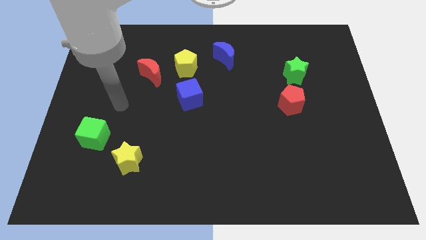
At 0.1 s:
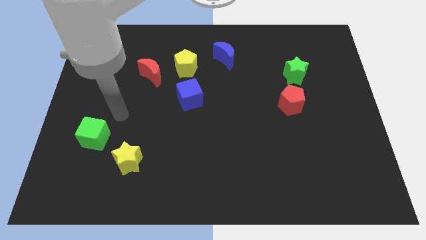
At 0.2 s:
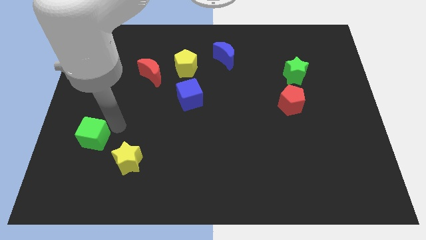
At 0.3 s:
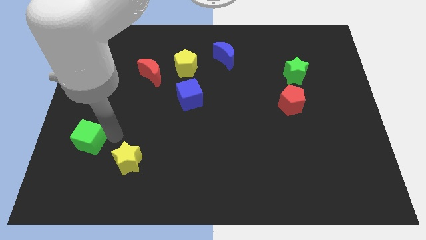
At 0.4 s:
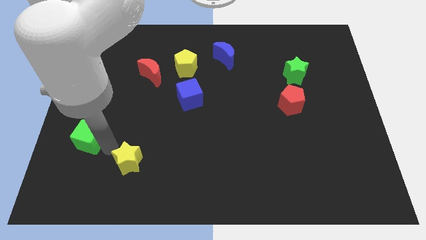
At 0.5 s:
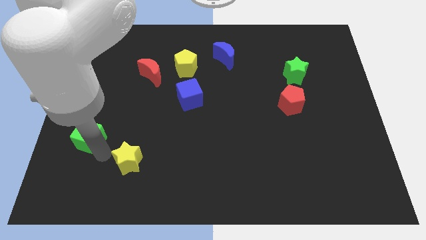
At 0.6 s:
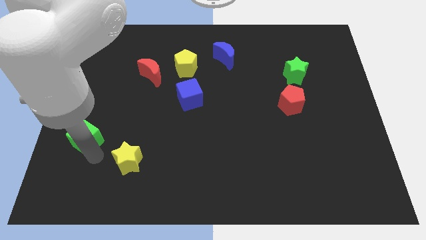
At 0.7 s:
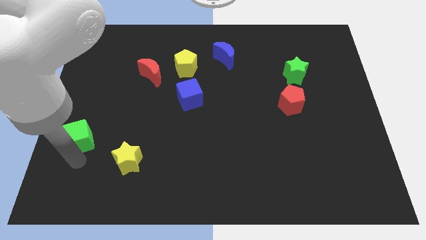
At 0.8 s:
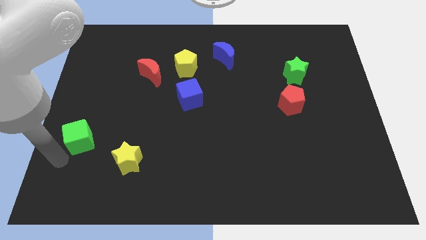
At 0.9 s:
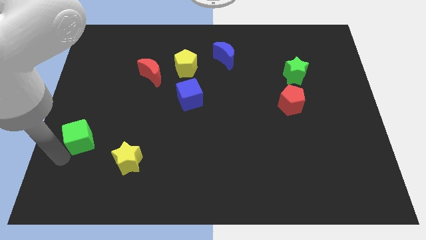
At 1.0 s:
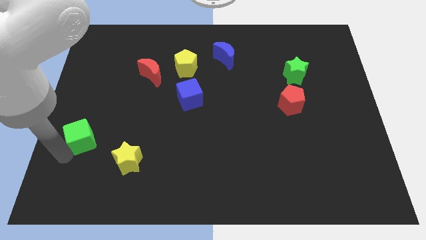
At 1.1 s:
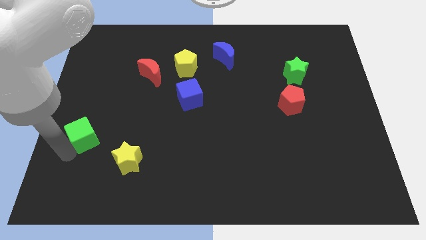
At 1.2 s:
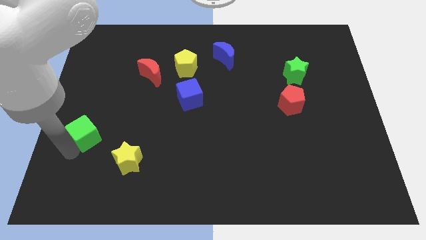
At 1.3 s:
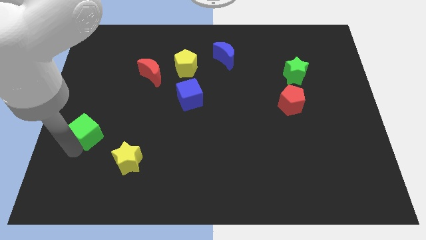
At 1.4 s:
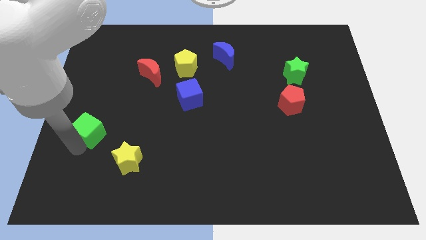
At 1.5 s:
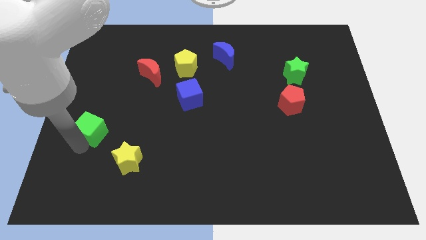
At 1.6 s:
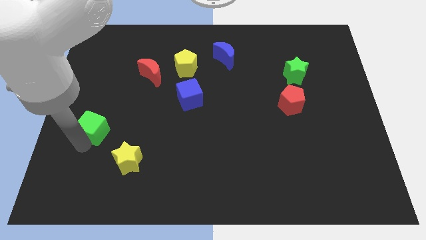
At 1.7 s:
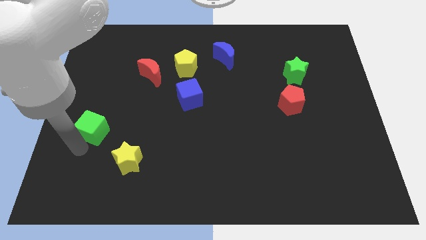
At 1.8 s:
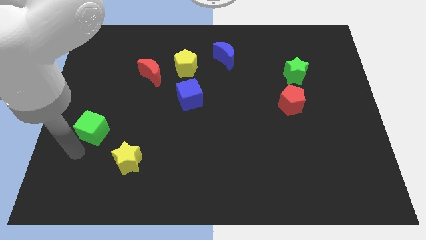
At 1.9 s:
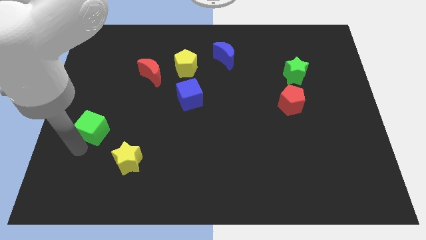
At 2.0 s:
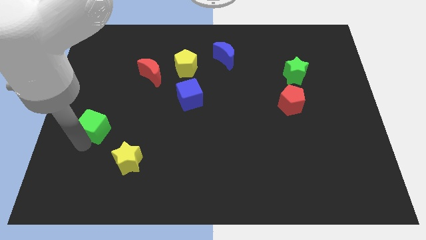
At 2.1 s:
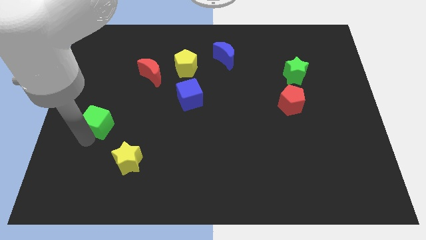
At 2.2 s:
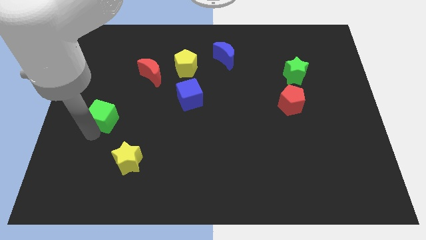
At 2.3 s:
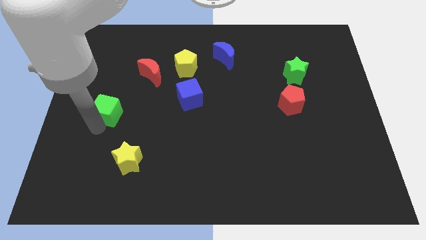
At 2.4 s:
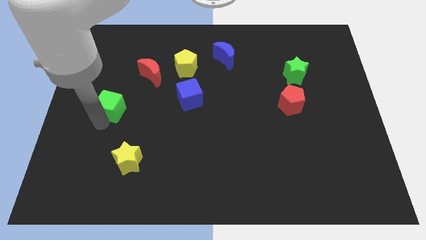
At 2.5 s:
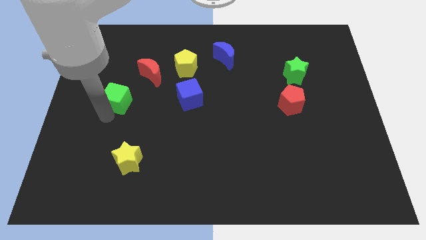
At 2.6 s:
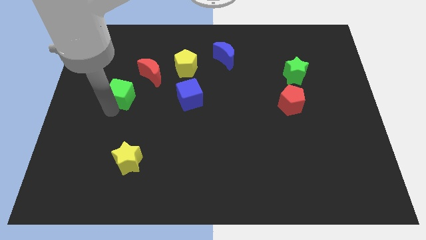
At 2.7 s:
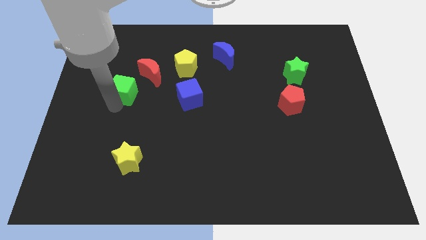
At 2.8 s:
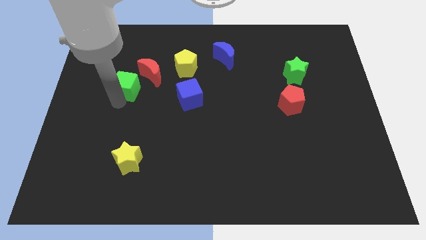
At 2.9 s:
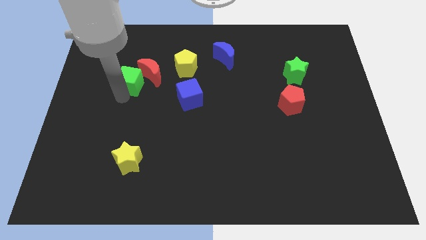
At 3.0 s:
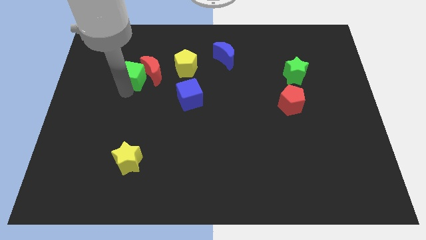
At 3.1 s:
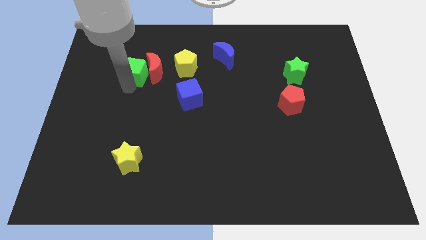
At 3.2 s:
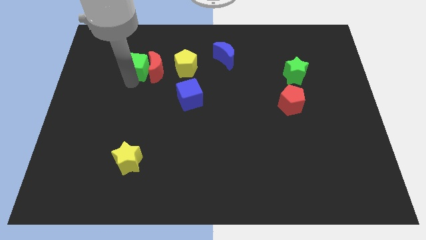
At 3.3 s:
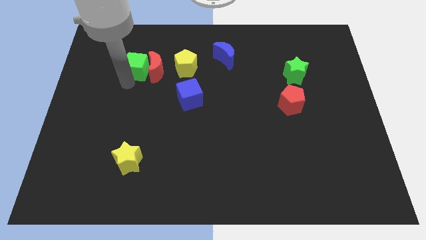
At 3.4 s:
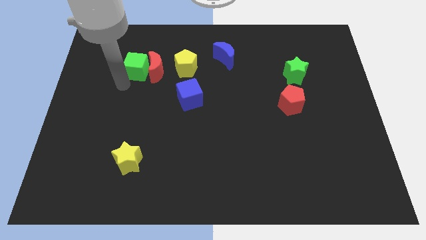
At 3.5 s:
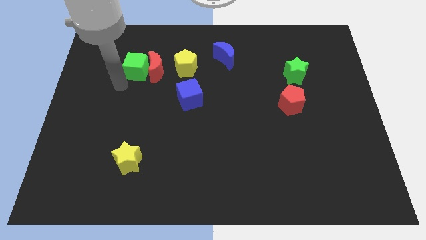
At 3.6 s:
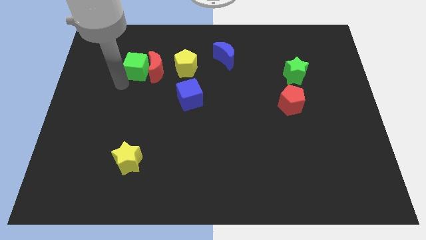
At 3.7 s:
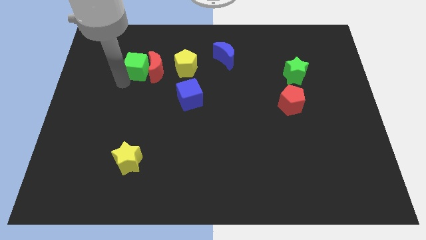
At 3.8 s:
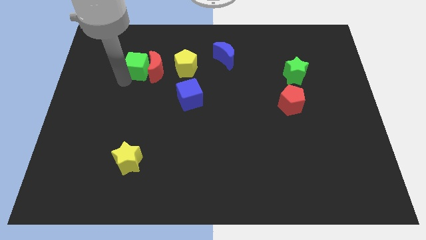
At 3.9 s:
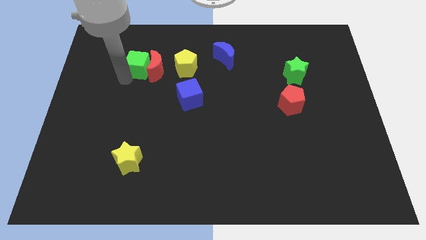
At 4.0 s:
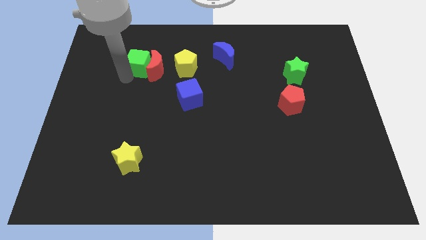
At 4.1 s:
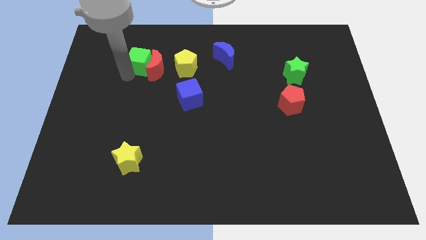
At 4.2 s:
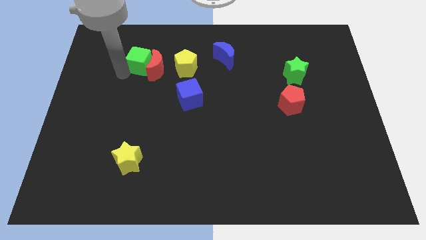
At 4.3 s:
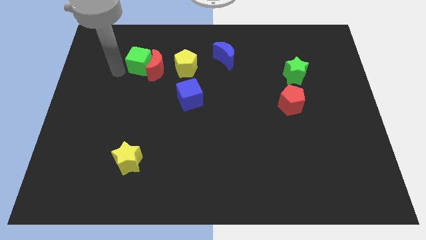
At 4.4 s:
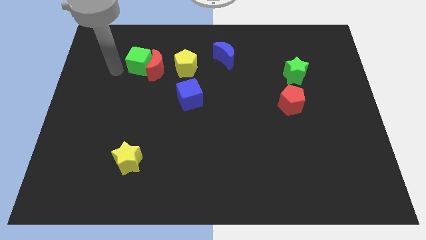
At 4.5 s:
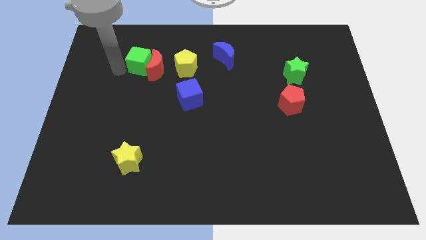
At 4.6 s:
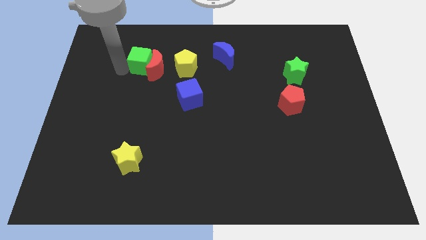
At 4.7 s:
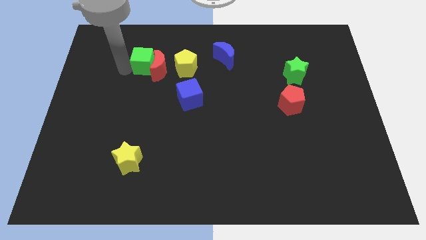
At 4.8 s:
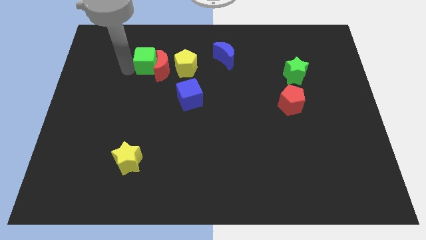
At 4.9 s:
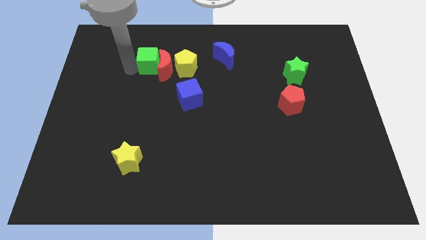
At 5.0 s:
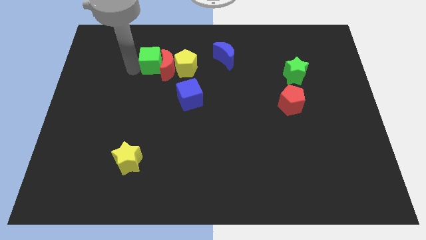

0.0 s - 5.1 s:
push the green cube upwards and to the right

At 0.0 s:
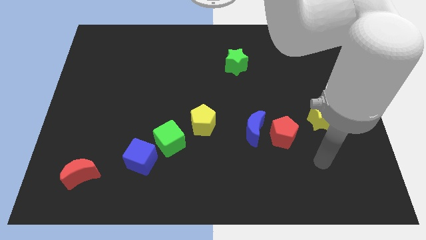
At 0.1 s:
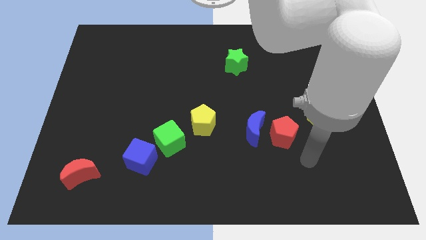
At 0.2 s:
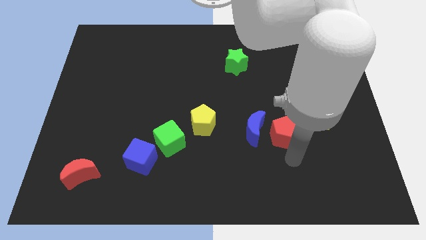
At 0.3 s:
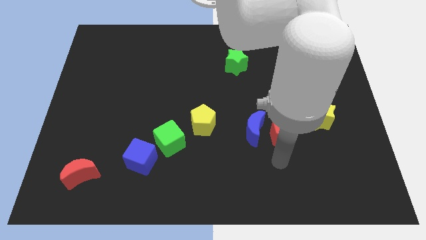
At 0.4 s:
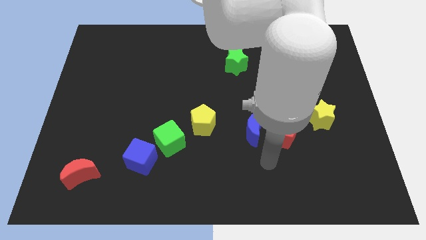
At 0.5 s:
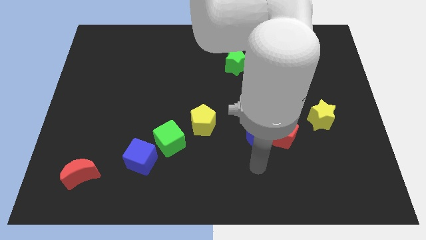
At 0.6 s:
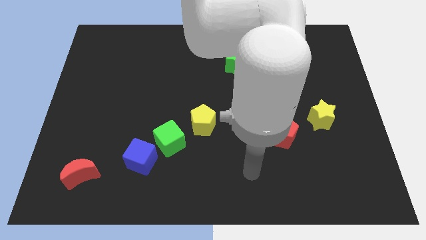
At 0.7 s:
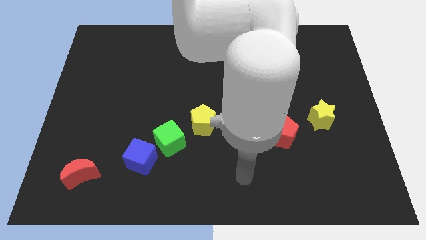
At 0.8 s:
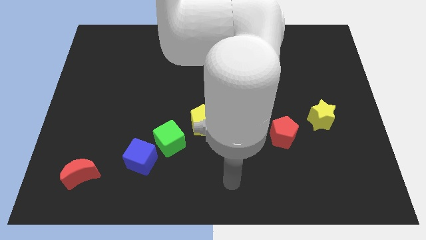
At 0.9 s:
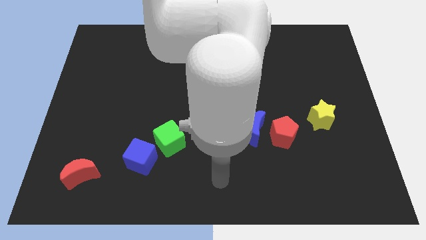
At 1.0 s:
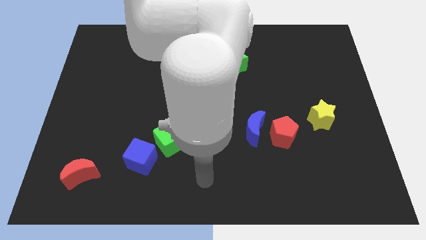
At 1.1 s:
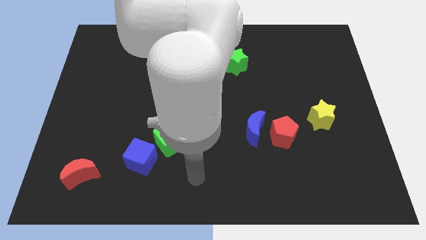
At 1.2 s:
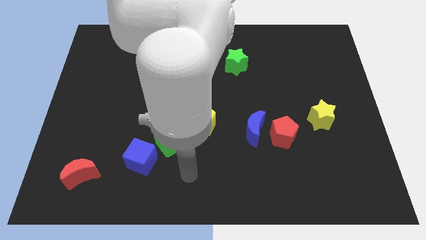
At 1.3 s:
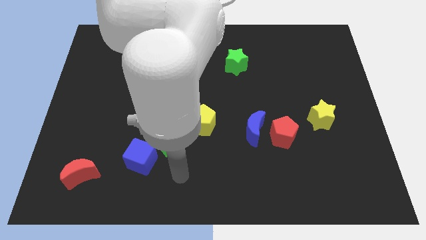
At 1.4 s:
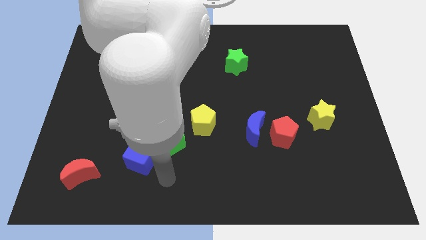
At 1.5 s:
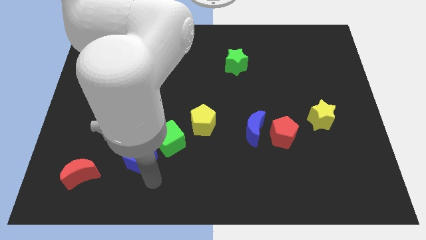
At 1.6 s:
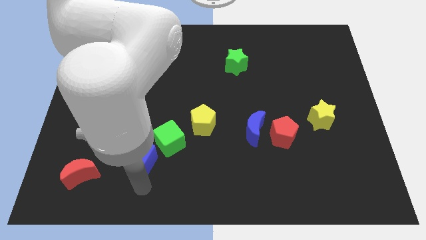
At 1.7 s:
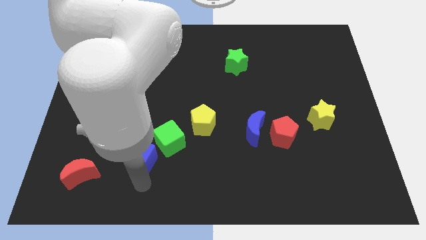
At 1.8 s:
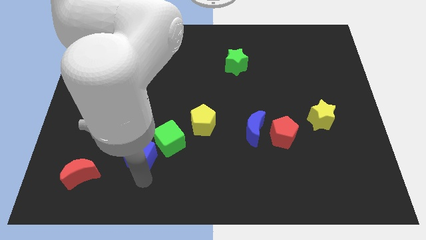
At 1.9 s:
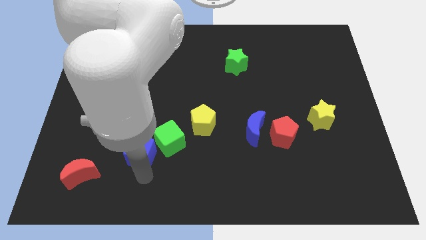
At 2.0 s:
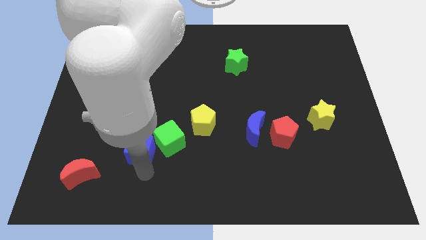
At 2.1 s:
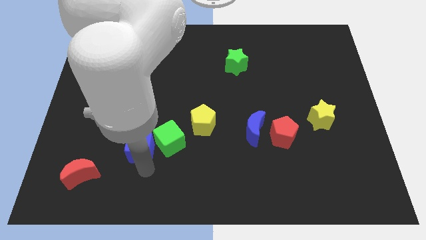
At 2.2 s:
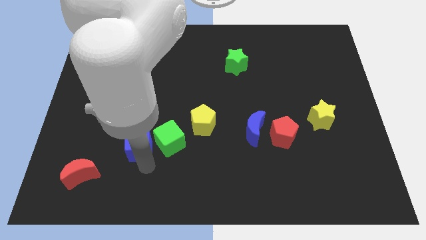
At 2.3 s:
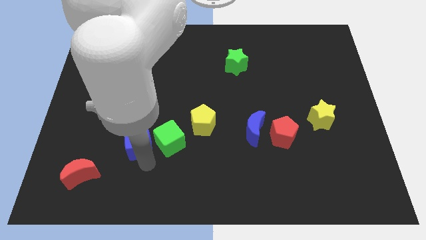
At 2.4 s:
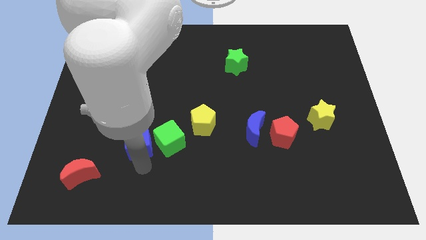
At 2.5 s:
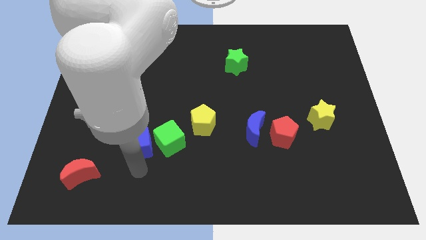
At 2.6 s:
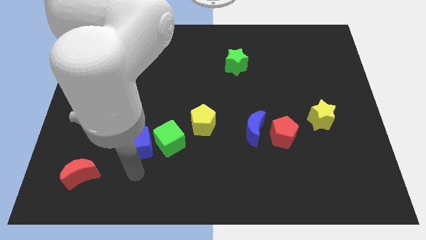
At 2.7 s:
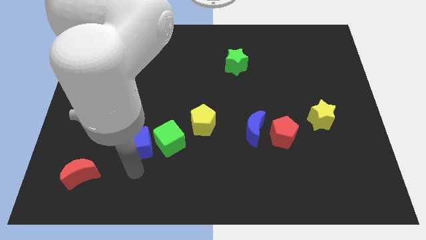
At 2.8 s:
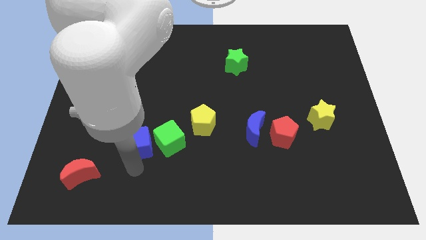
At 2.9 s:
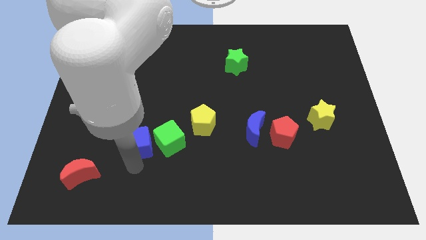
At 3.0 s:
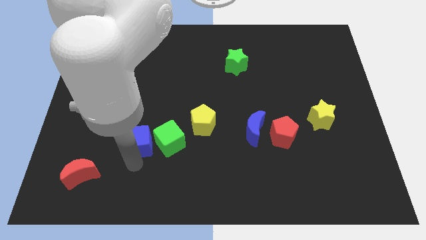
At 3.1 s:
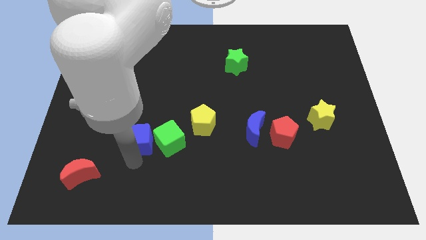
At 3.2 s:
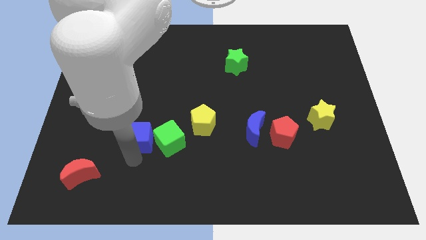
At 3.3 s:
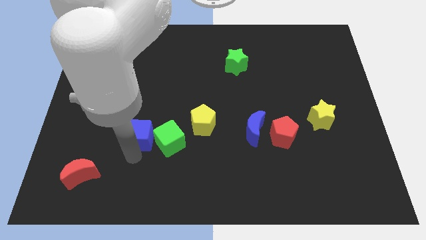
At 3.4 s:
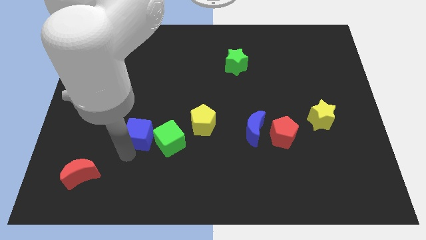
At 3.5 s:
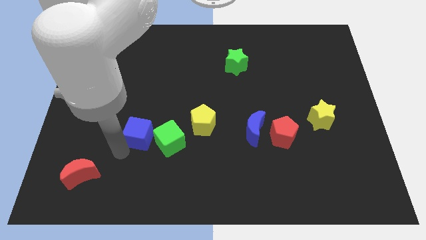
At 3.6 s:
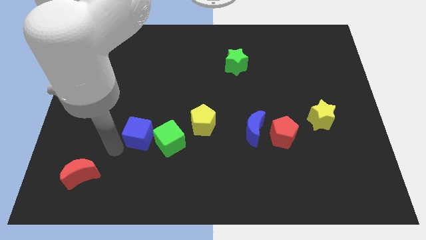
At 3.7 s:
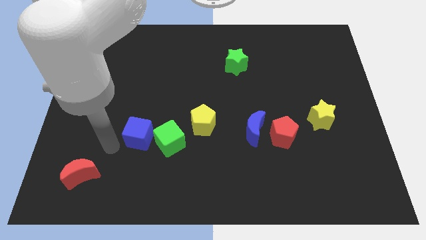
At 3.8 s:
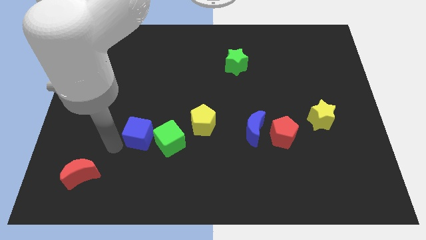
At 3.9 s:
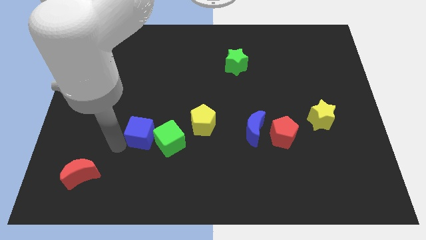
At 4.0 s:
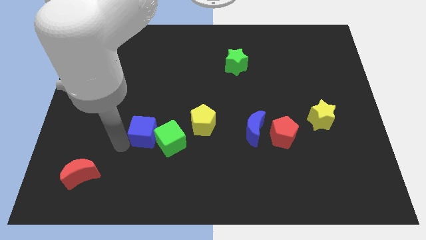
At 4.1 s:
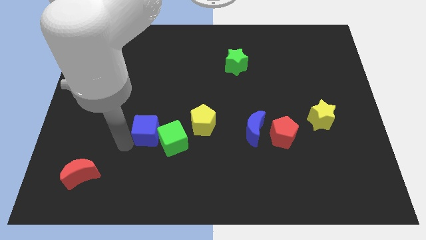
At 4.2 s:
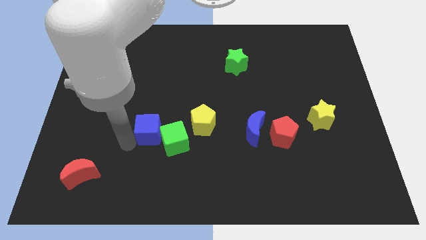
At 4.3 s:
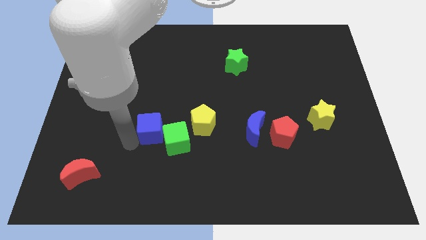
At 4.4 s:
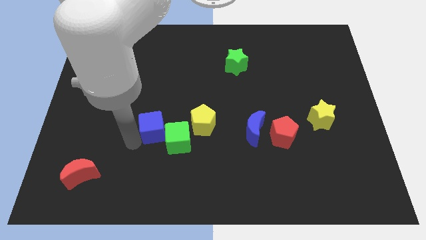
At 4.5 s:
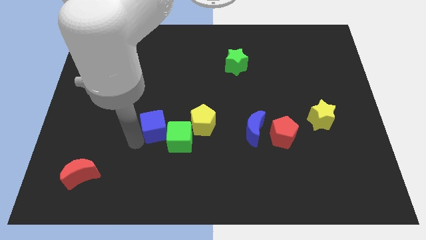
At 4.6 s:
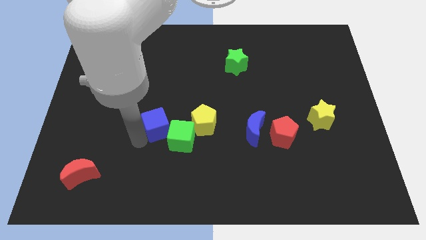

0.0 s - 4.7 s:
push the blue cube a little up and right diagonally
